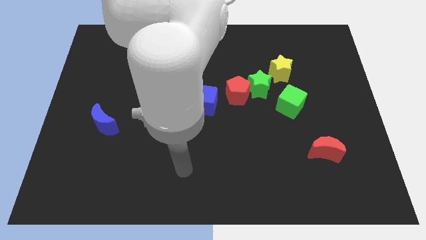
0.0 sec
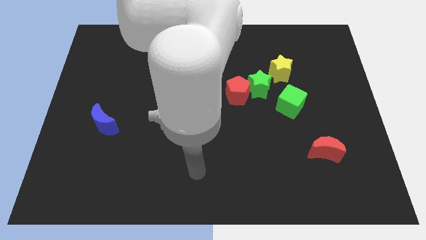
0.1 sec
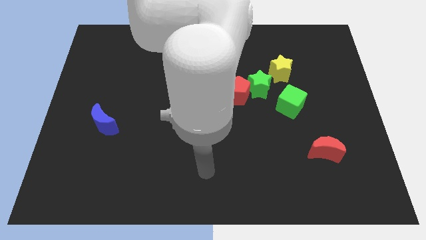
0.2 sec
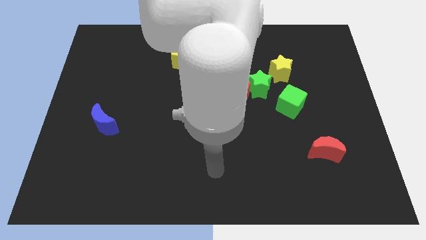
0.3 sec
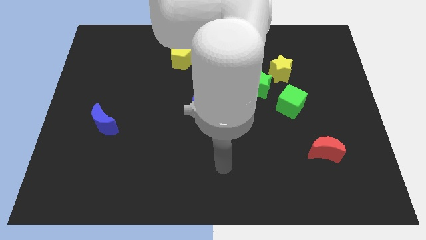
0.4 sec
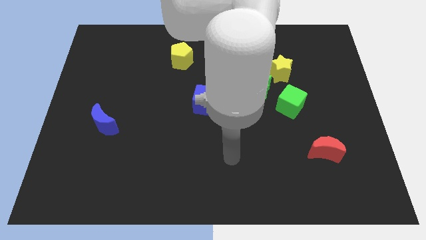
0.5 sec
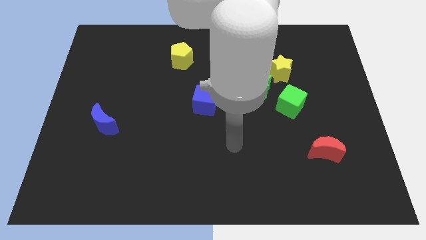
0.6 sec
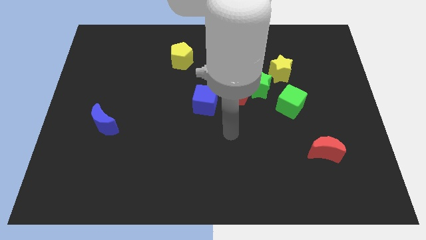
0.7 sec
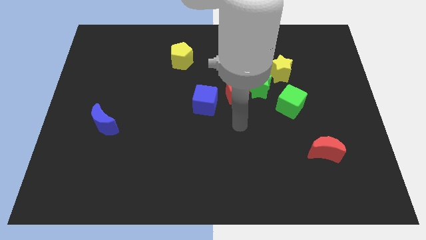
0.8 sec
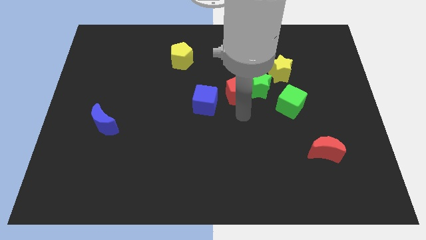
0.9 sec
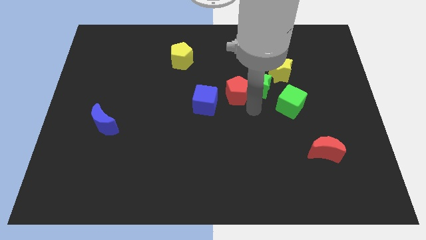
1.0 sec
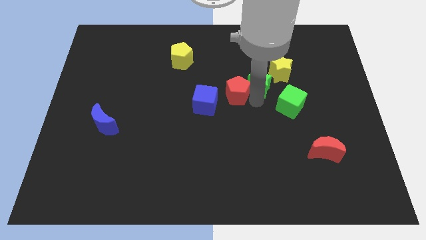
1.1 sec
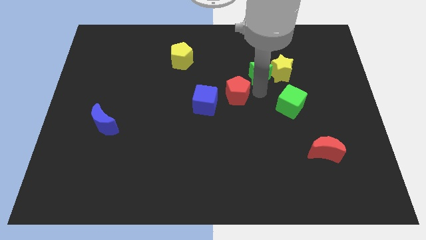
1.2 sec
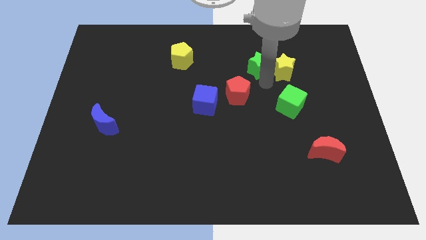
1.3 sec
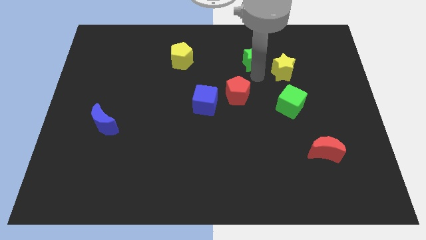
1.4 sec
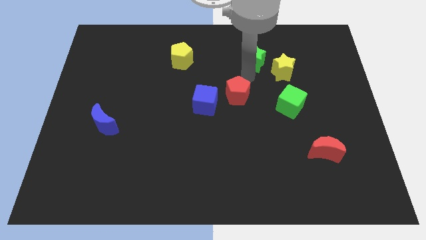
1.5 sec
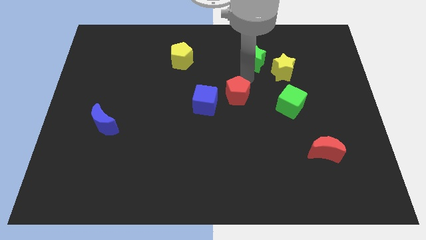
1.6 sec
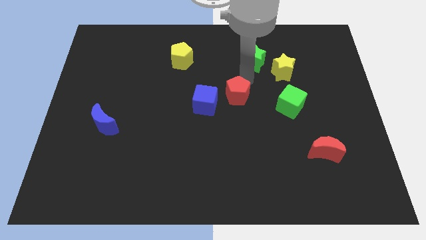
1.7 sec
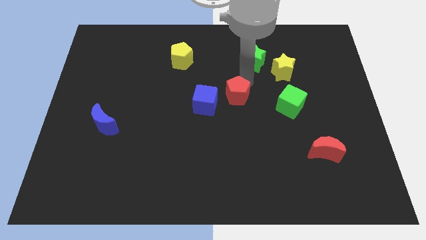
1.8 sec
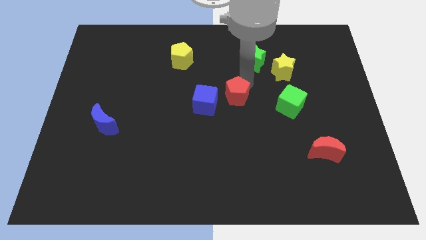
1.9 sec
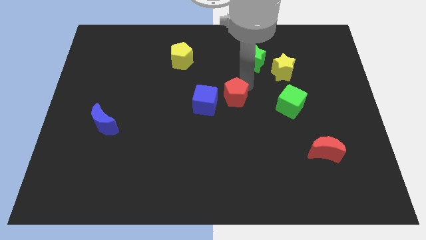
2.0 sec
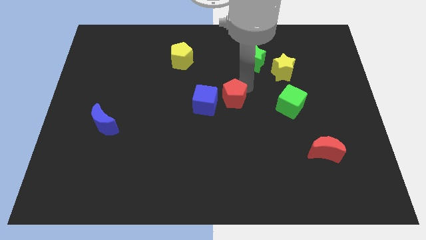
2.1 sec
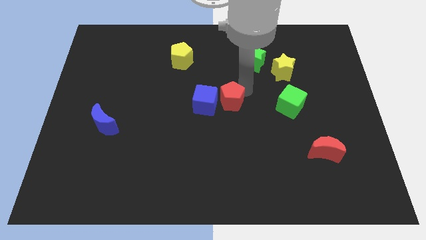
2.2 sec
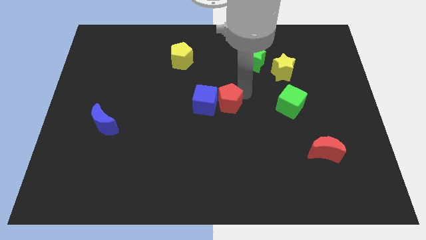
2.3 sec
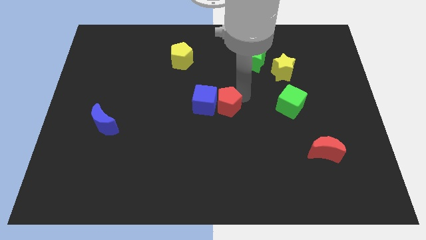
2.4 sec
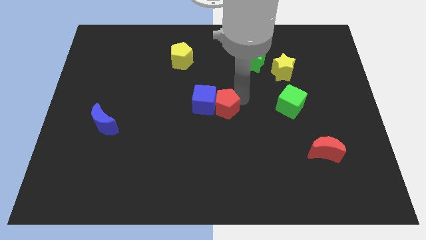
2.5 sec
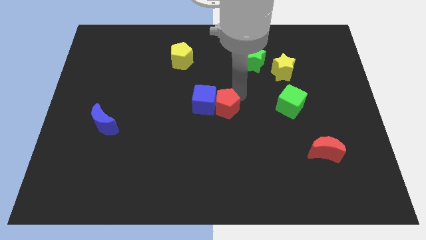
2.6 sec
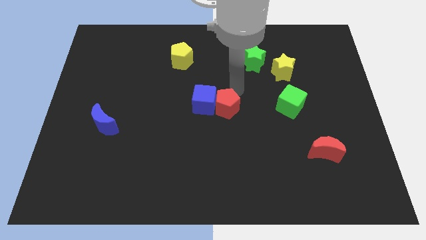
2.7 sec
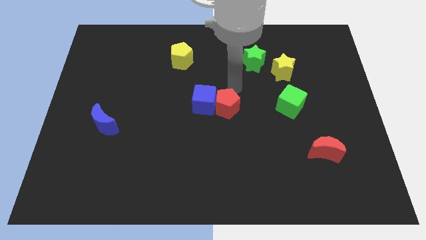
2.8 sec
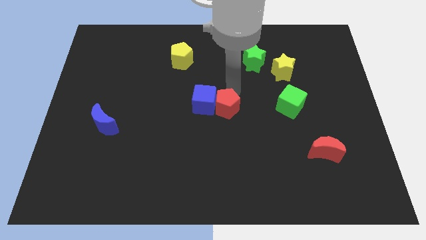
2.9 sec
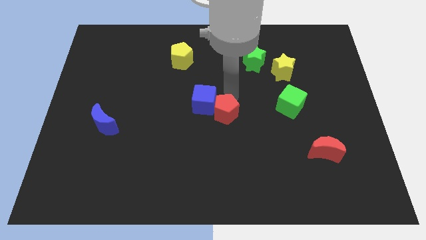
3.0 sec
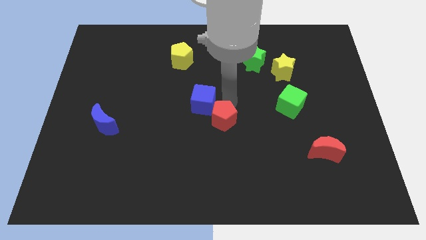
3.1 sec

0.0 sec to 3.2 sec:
move the red pentagon down somewhat

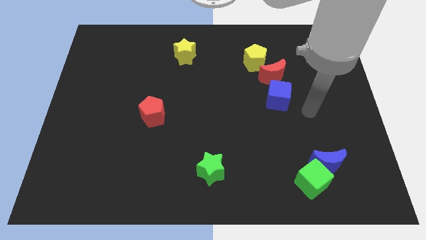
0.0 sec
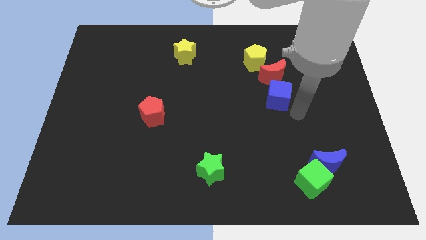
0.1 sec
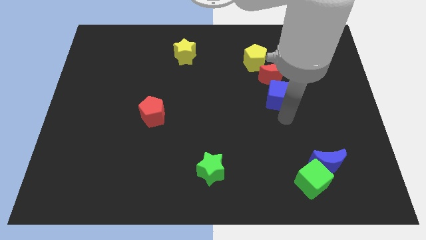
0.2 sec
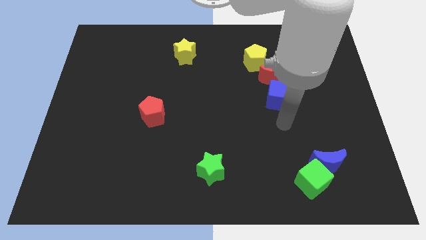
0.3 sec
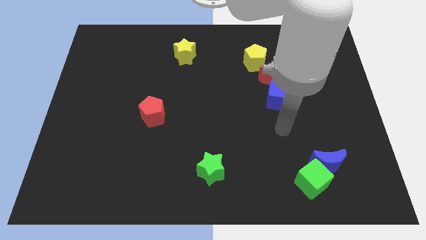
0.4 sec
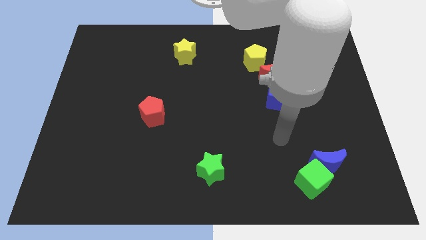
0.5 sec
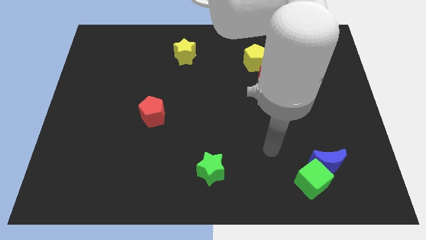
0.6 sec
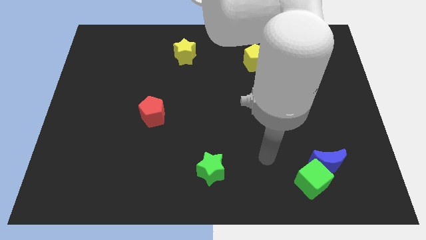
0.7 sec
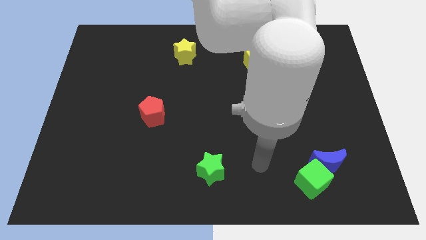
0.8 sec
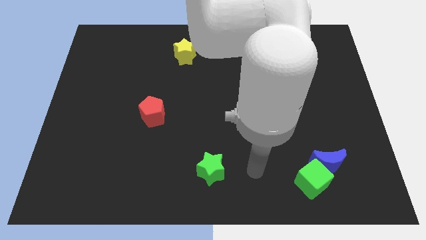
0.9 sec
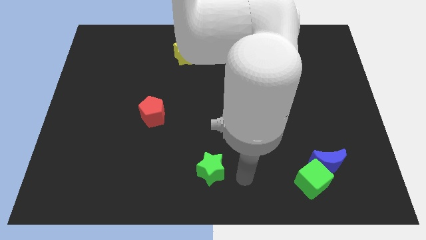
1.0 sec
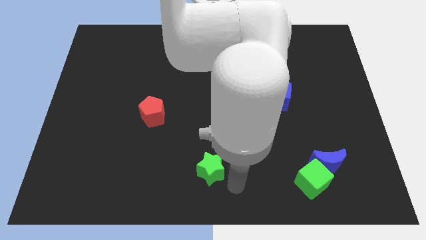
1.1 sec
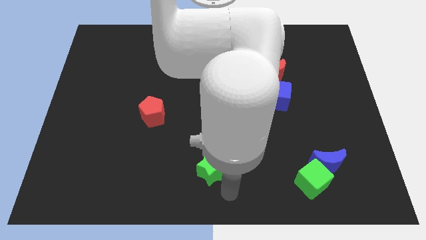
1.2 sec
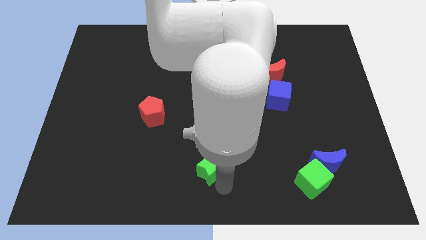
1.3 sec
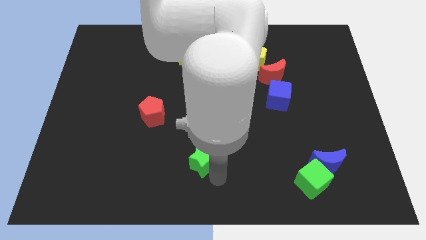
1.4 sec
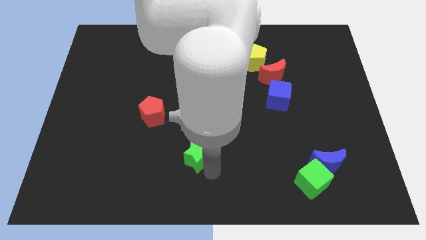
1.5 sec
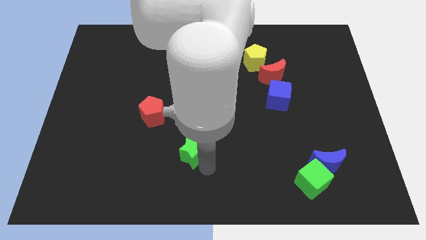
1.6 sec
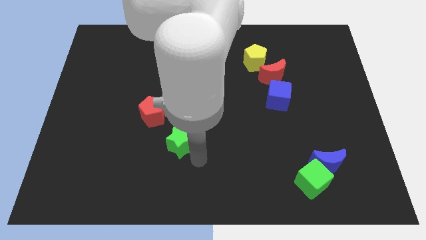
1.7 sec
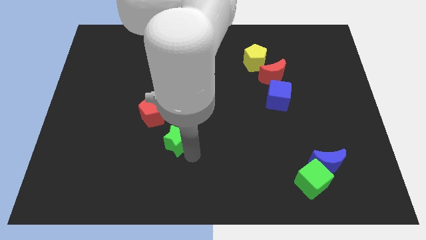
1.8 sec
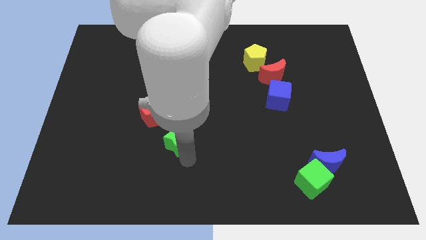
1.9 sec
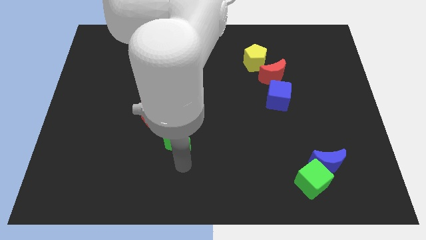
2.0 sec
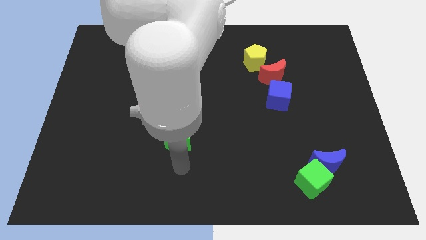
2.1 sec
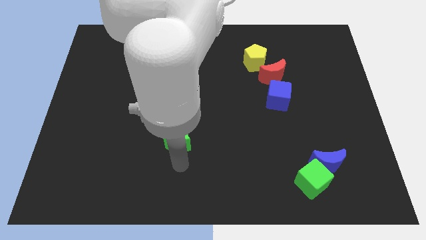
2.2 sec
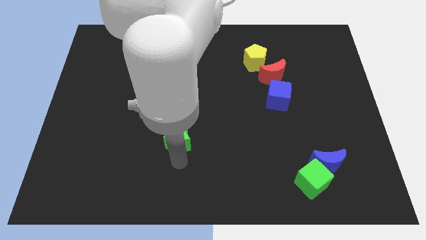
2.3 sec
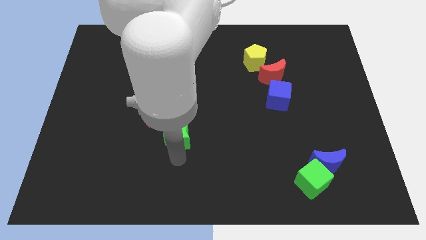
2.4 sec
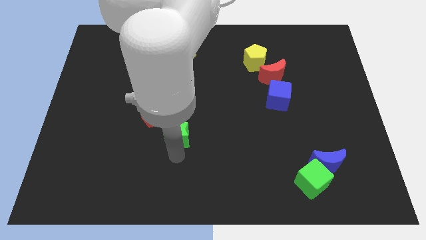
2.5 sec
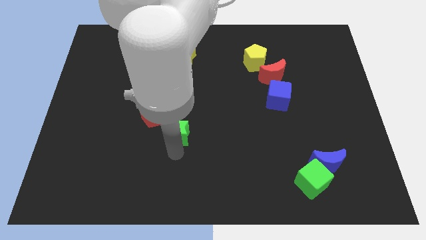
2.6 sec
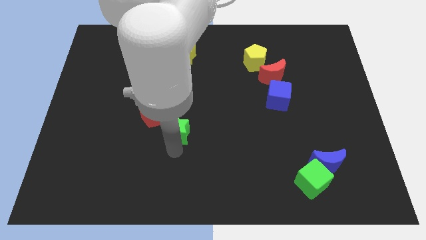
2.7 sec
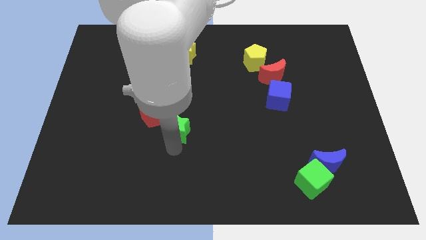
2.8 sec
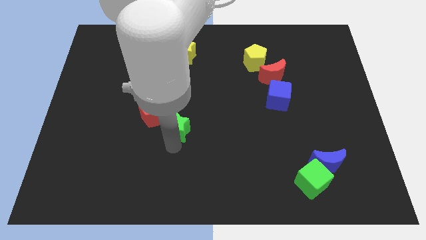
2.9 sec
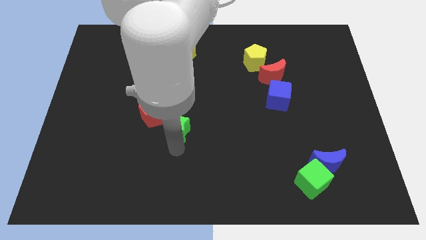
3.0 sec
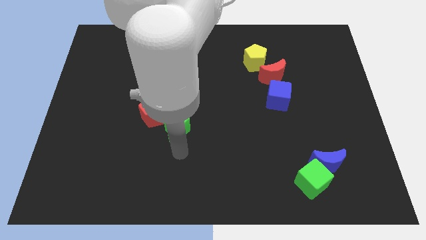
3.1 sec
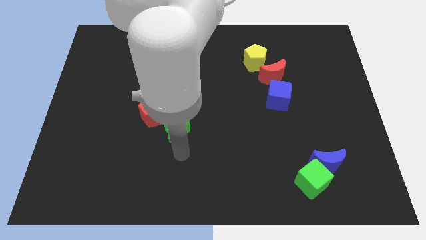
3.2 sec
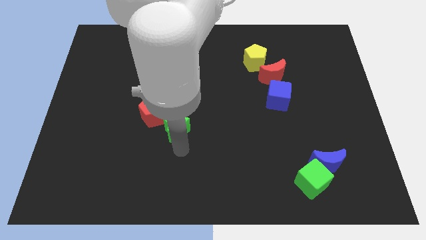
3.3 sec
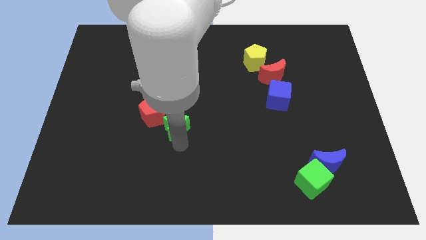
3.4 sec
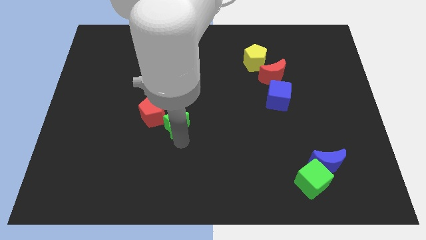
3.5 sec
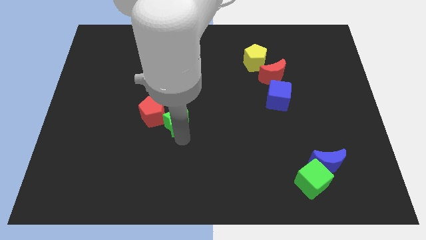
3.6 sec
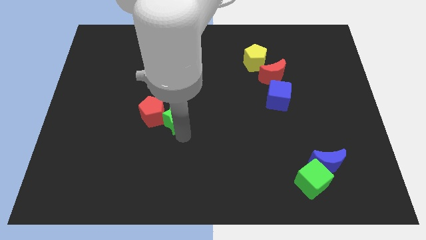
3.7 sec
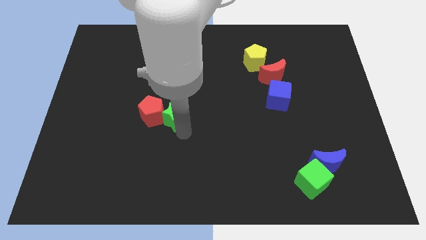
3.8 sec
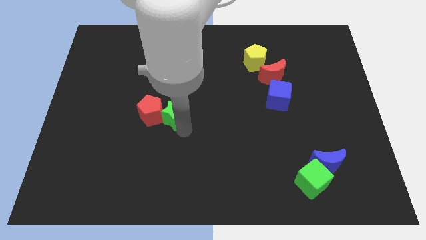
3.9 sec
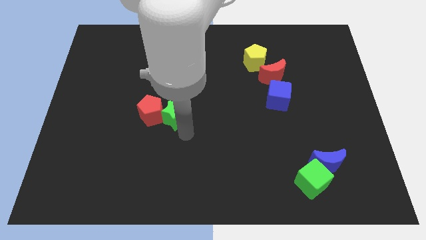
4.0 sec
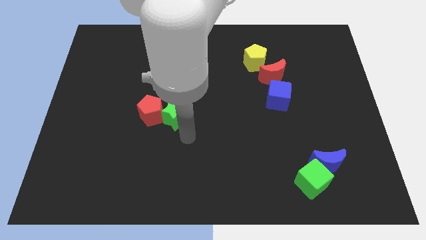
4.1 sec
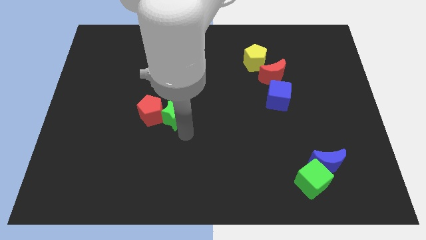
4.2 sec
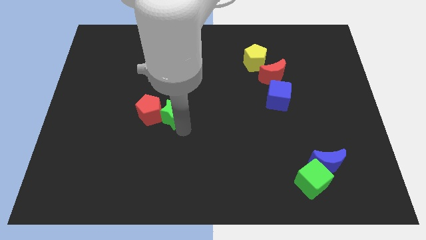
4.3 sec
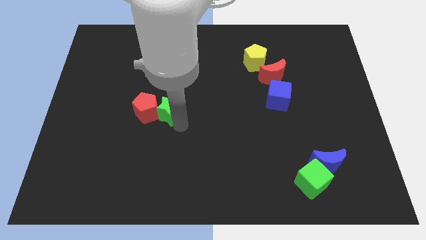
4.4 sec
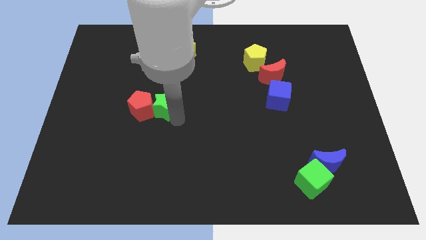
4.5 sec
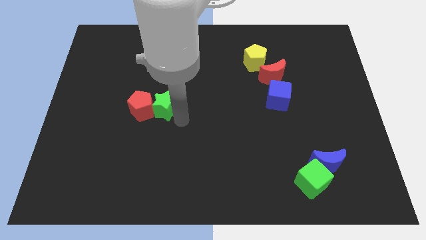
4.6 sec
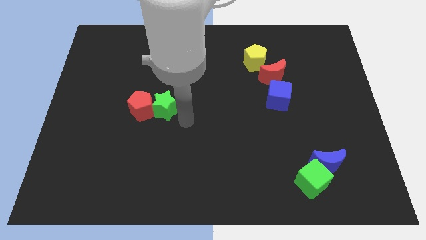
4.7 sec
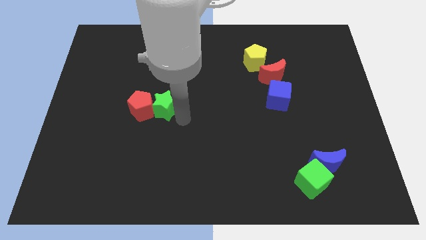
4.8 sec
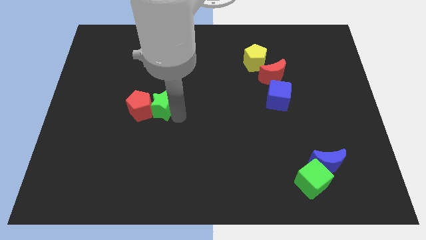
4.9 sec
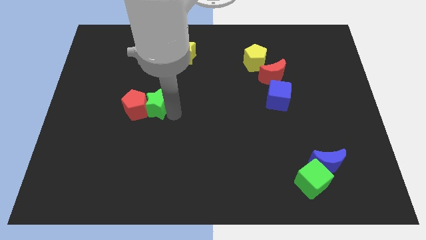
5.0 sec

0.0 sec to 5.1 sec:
move the green star upwards and then to the left
